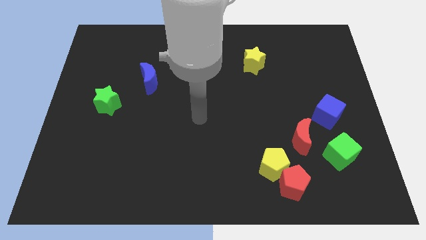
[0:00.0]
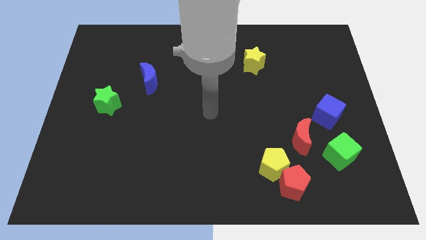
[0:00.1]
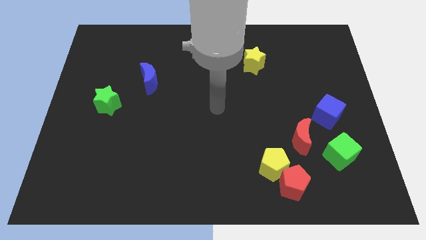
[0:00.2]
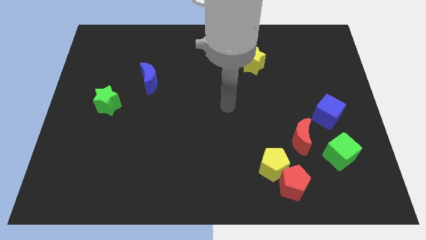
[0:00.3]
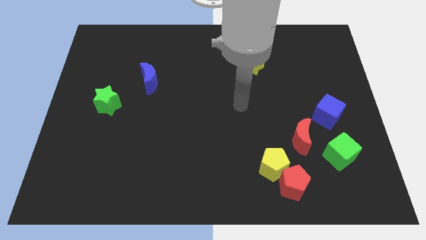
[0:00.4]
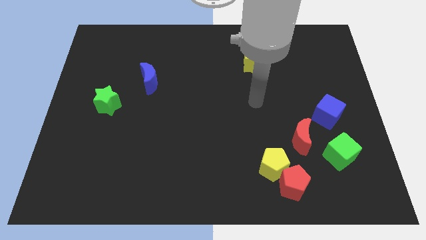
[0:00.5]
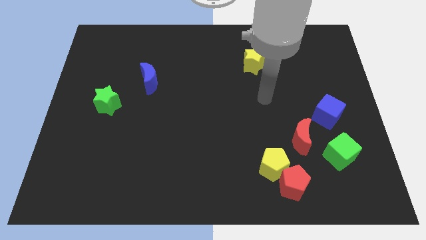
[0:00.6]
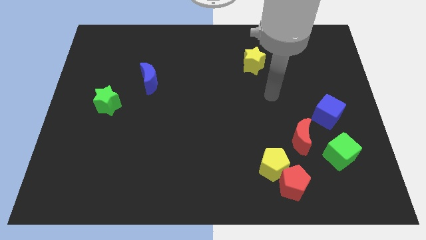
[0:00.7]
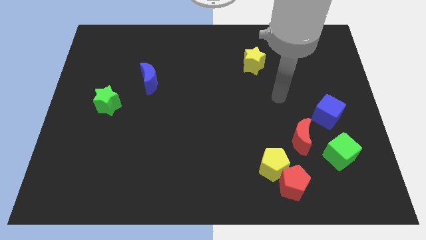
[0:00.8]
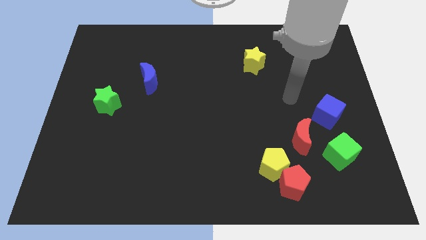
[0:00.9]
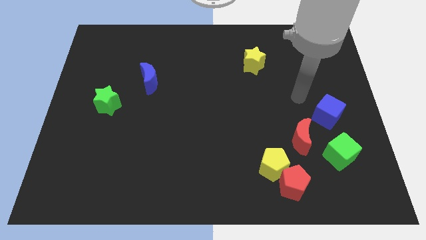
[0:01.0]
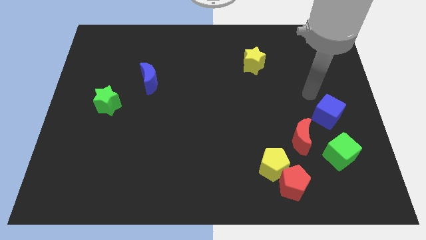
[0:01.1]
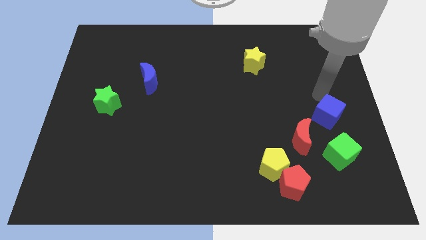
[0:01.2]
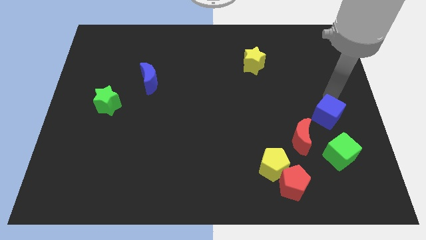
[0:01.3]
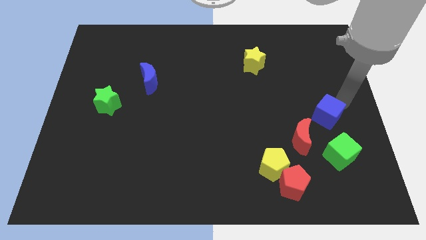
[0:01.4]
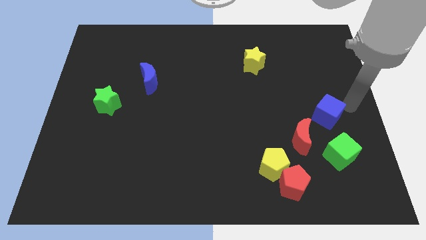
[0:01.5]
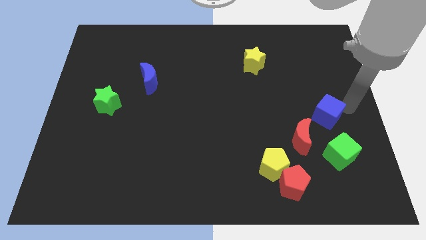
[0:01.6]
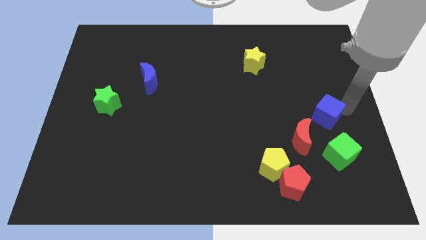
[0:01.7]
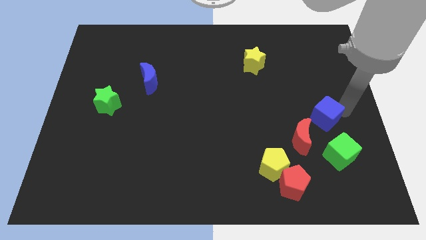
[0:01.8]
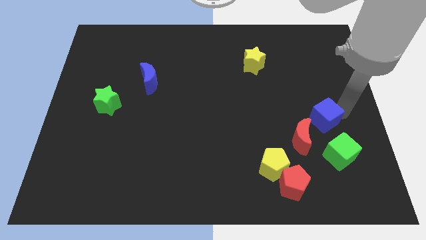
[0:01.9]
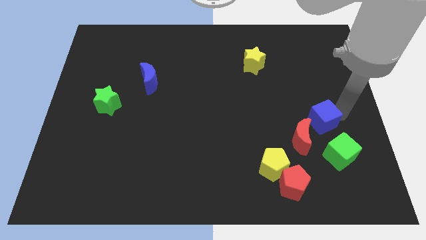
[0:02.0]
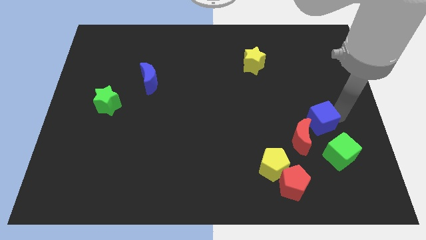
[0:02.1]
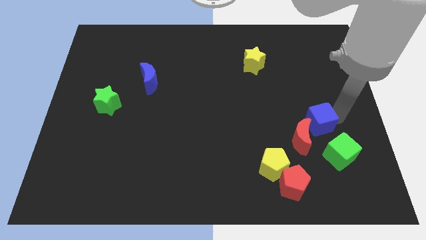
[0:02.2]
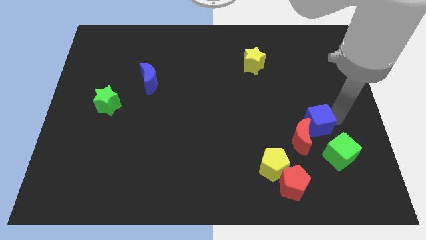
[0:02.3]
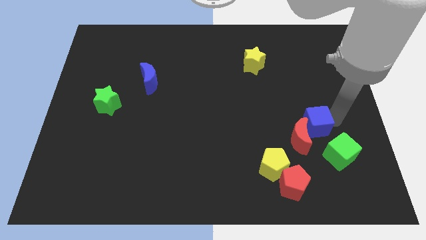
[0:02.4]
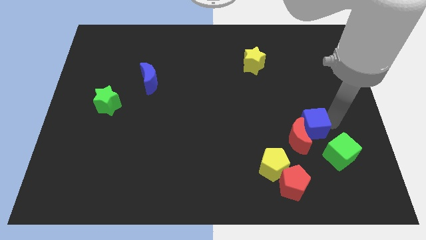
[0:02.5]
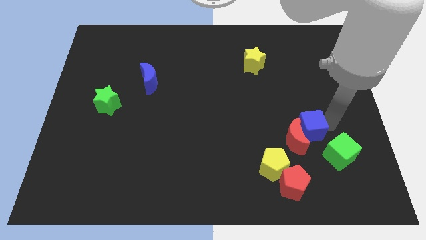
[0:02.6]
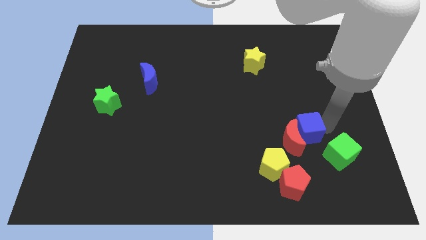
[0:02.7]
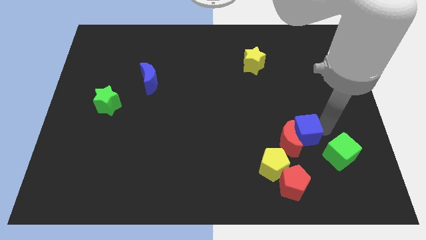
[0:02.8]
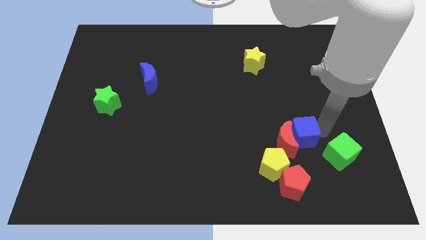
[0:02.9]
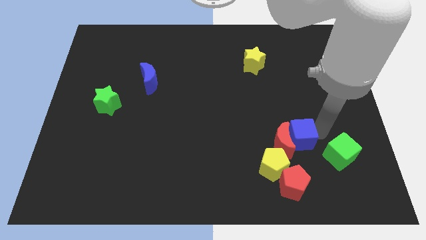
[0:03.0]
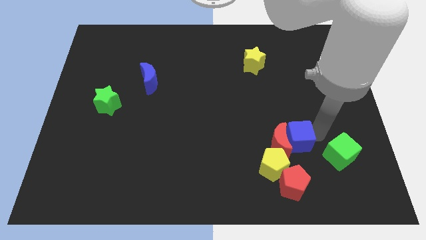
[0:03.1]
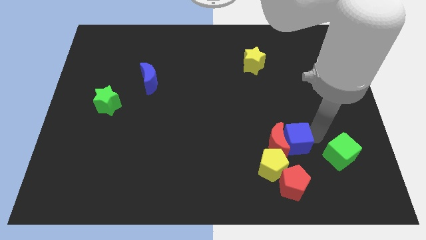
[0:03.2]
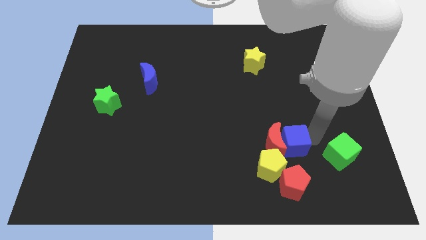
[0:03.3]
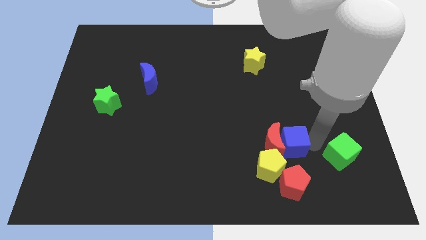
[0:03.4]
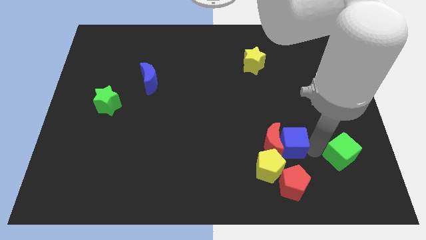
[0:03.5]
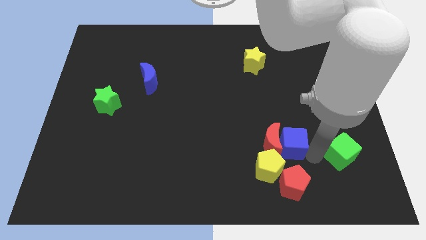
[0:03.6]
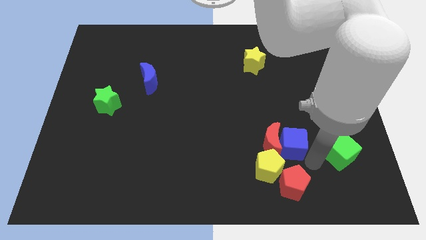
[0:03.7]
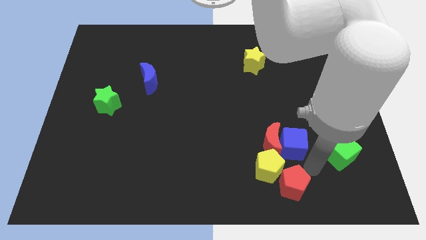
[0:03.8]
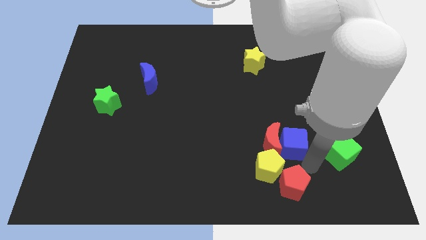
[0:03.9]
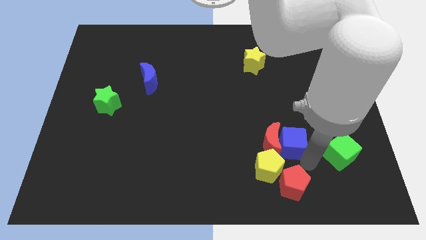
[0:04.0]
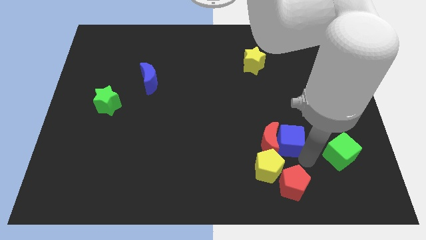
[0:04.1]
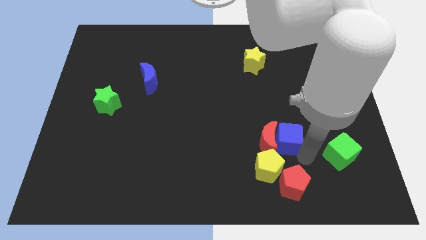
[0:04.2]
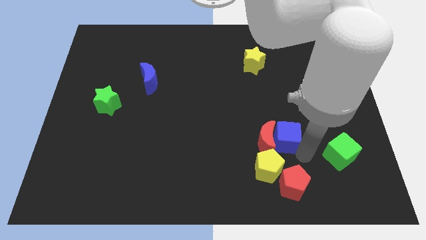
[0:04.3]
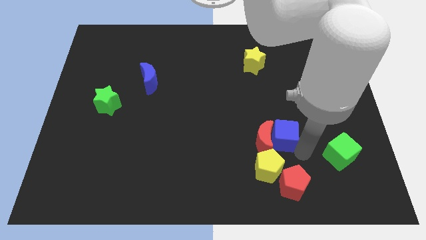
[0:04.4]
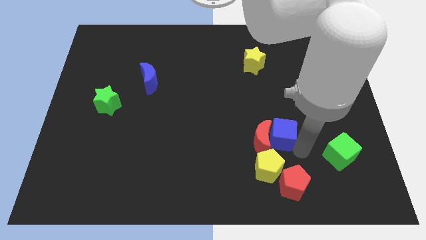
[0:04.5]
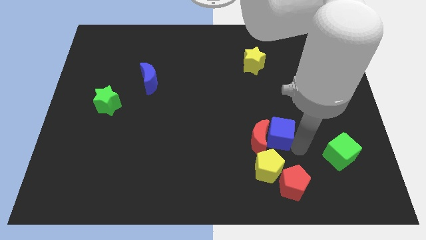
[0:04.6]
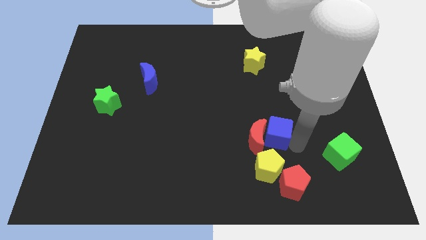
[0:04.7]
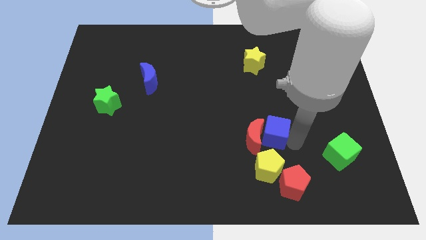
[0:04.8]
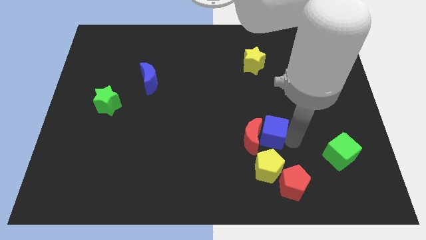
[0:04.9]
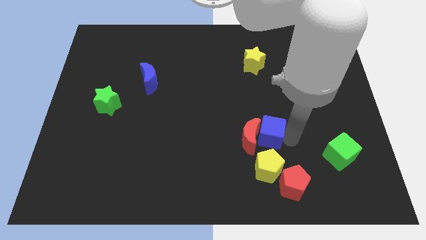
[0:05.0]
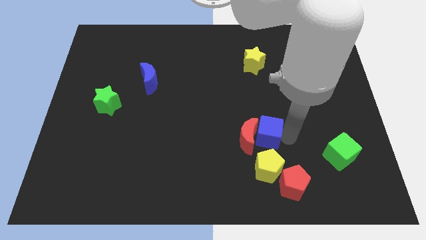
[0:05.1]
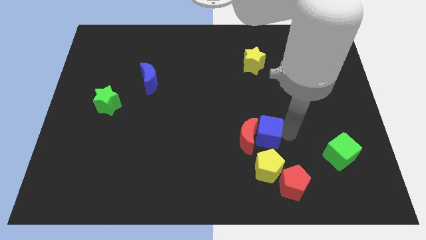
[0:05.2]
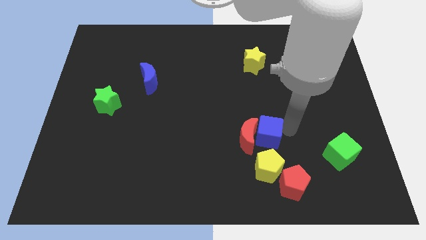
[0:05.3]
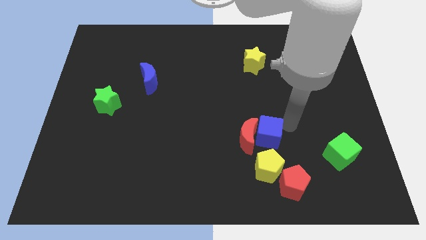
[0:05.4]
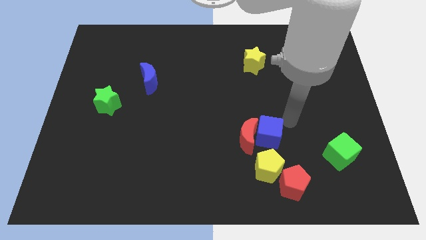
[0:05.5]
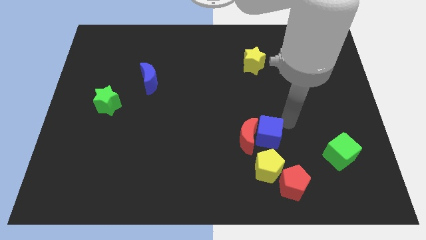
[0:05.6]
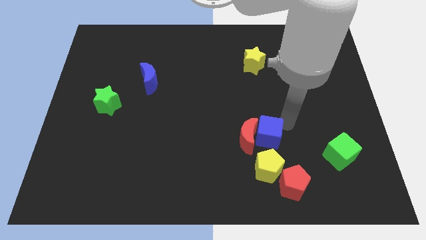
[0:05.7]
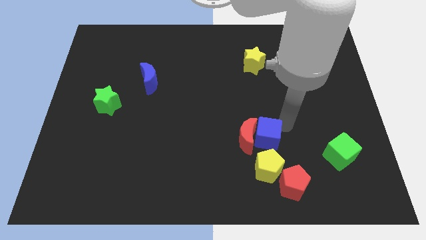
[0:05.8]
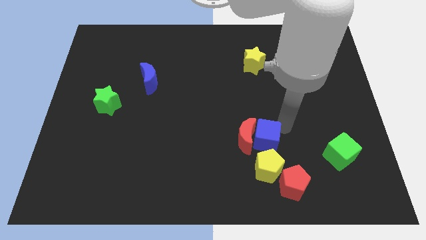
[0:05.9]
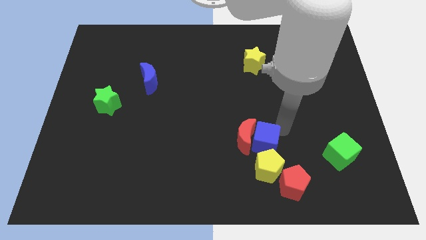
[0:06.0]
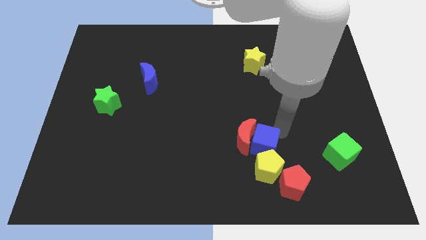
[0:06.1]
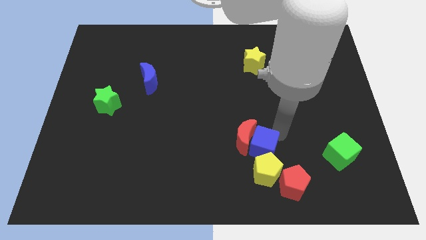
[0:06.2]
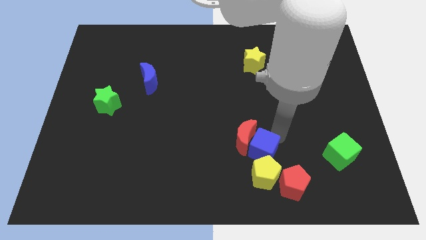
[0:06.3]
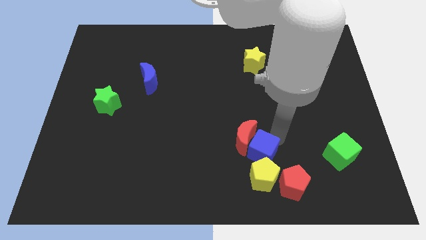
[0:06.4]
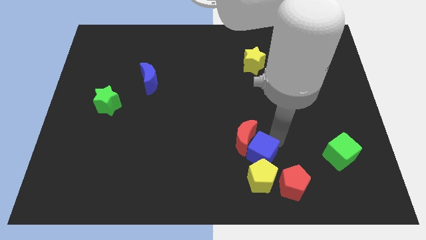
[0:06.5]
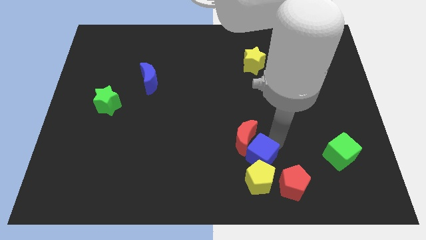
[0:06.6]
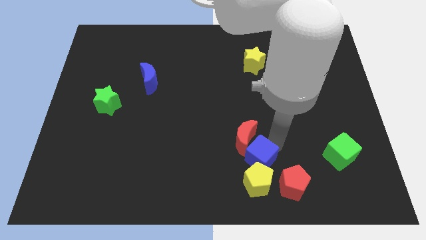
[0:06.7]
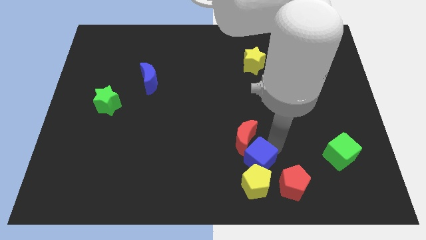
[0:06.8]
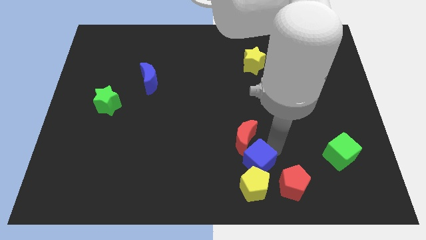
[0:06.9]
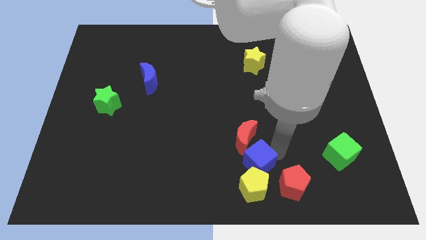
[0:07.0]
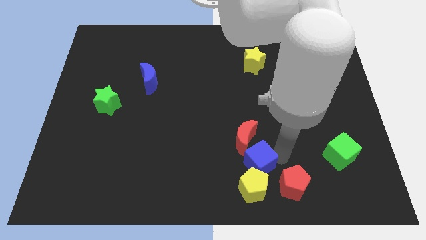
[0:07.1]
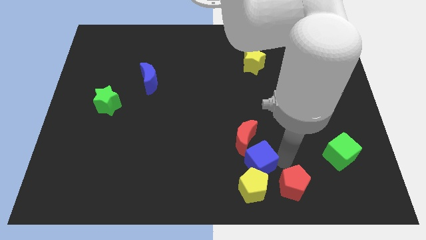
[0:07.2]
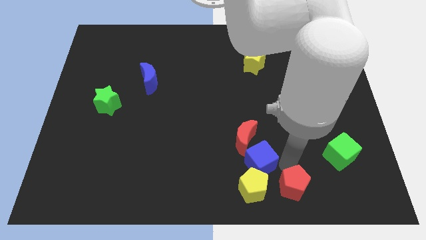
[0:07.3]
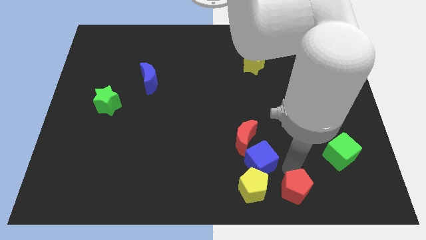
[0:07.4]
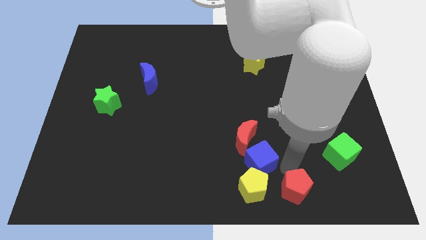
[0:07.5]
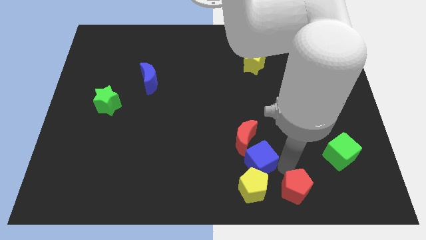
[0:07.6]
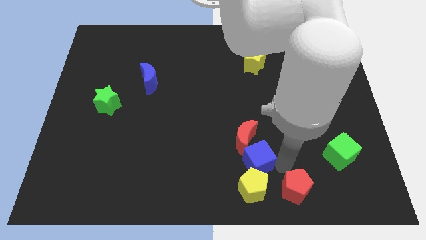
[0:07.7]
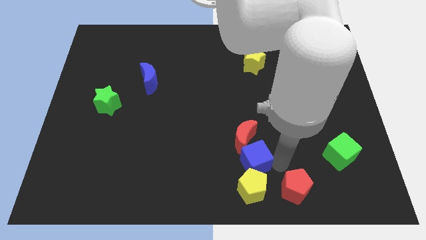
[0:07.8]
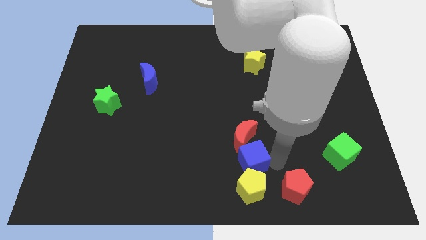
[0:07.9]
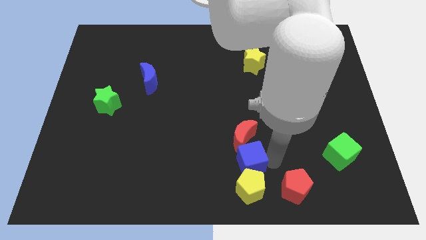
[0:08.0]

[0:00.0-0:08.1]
push the blue cube to the bottom
